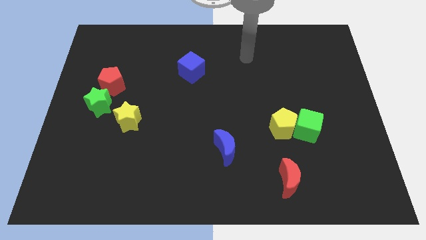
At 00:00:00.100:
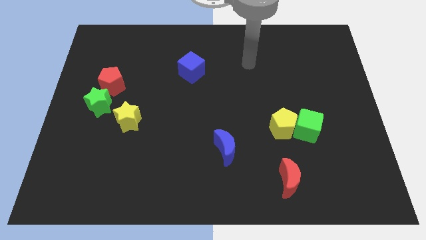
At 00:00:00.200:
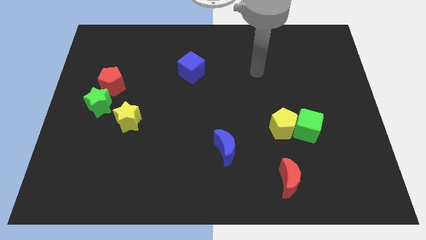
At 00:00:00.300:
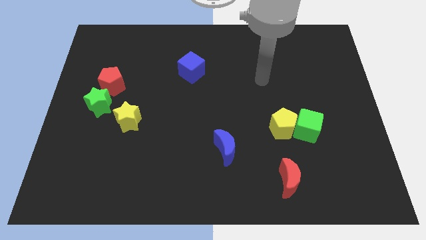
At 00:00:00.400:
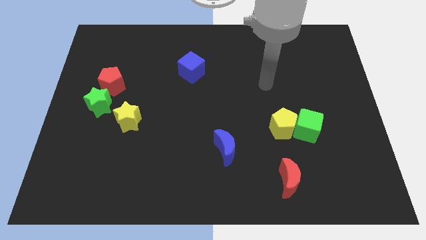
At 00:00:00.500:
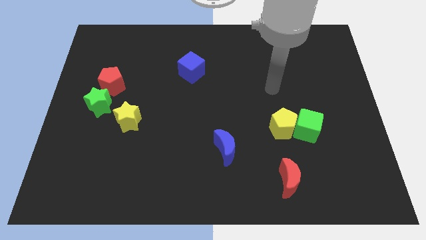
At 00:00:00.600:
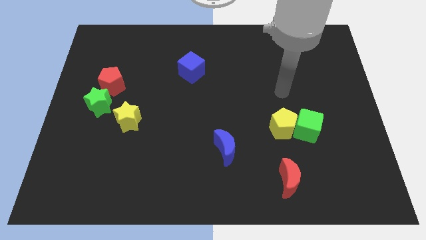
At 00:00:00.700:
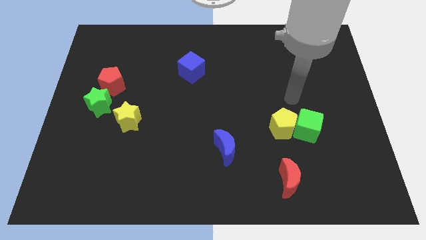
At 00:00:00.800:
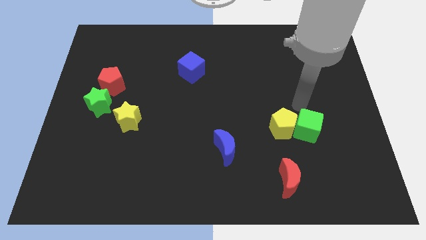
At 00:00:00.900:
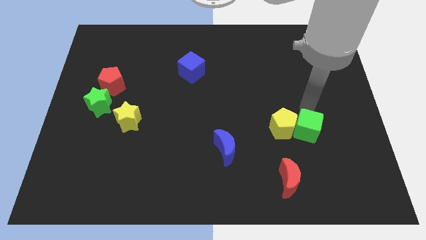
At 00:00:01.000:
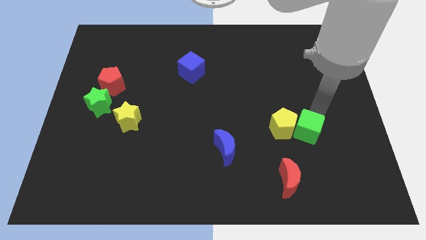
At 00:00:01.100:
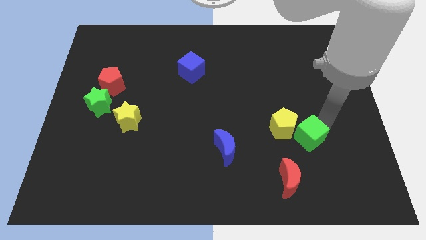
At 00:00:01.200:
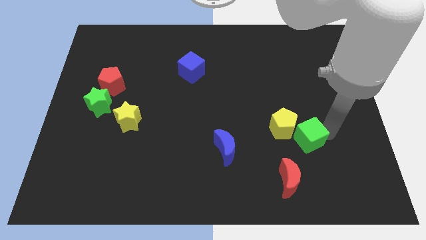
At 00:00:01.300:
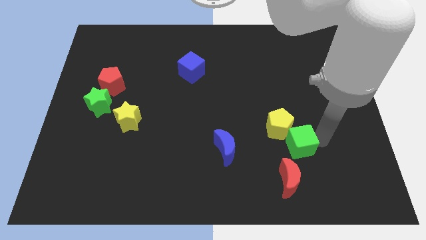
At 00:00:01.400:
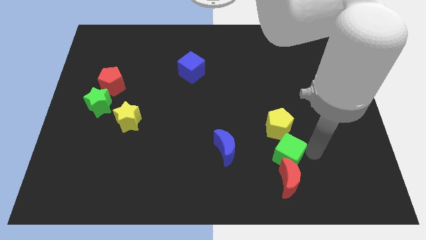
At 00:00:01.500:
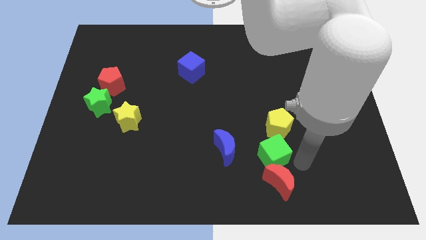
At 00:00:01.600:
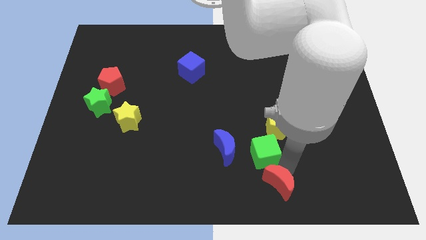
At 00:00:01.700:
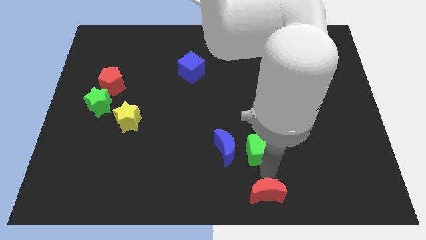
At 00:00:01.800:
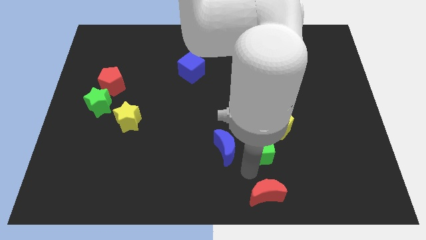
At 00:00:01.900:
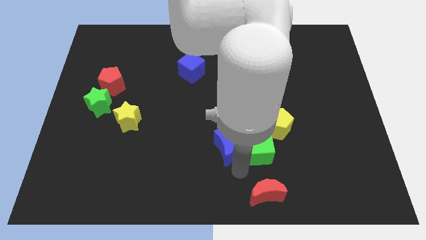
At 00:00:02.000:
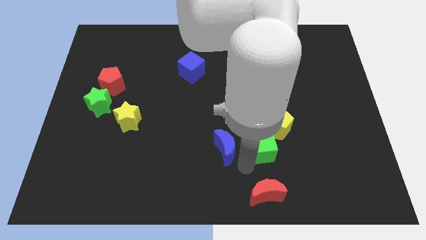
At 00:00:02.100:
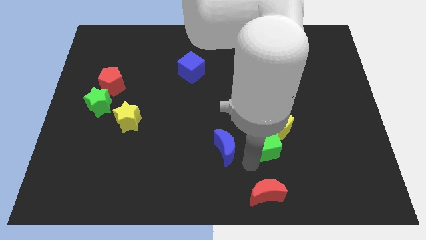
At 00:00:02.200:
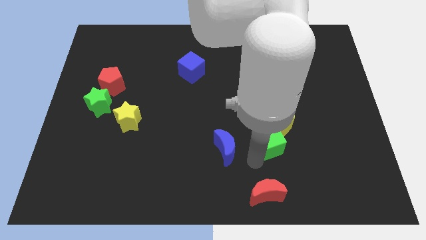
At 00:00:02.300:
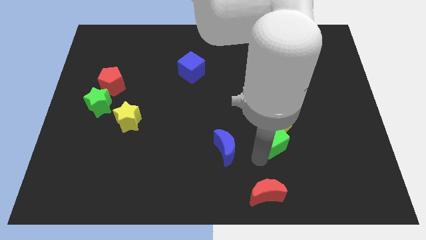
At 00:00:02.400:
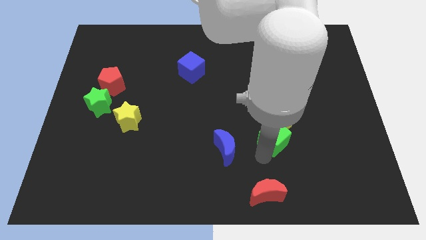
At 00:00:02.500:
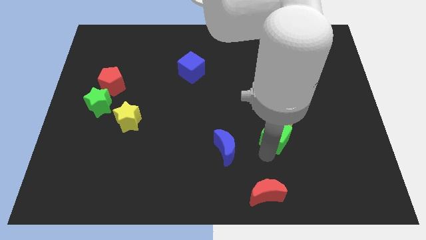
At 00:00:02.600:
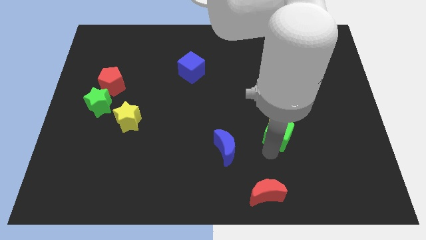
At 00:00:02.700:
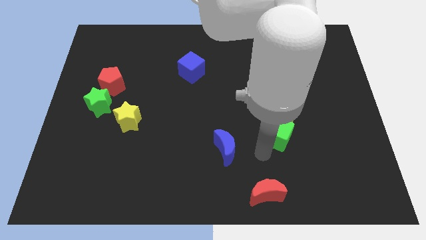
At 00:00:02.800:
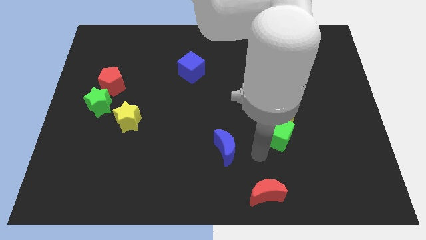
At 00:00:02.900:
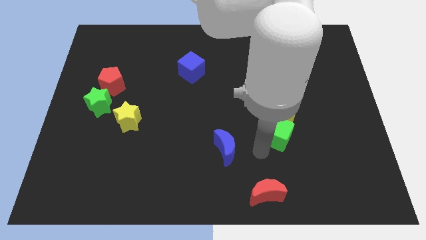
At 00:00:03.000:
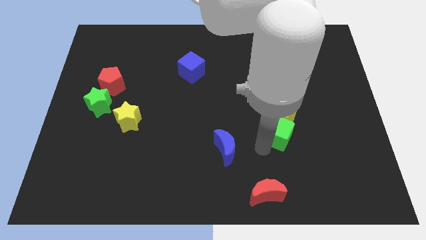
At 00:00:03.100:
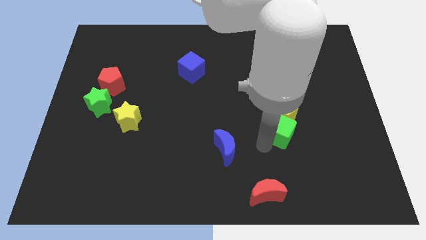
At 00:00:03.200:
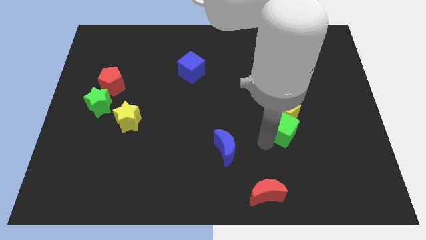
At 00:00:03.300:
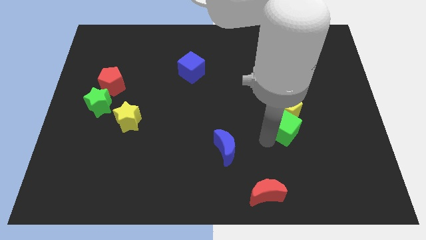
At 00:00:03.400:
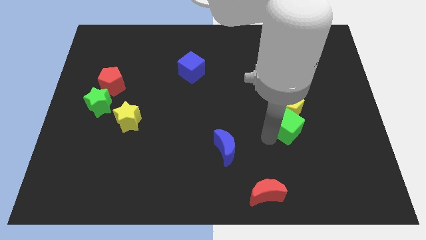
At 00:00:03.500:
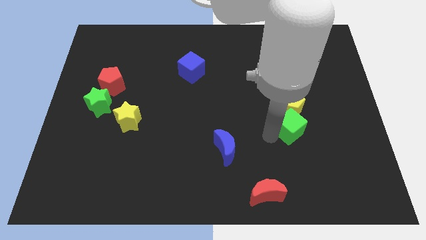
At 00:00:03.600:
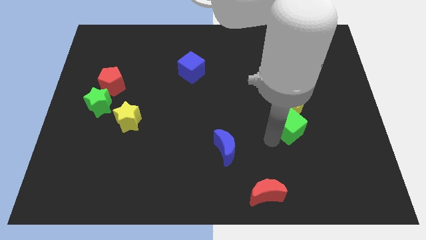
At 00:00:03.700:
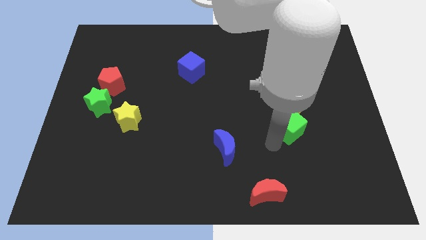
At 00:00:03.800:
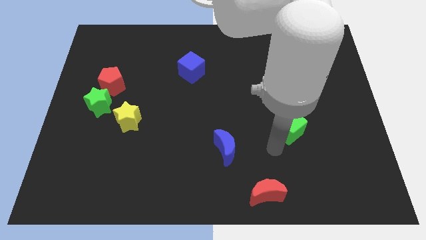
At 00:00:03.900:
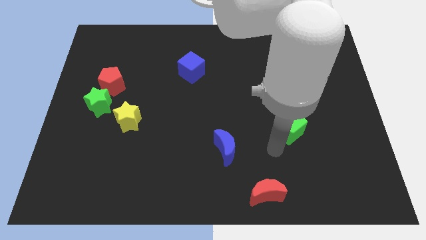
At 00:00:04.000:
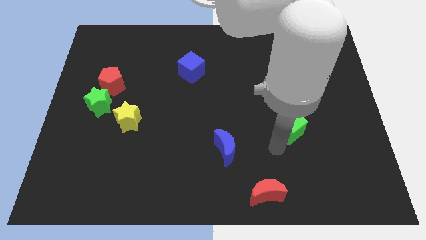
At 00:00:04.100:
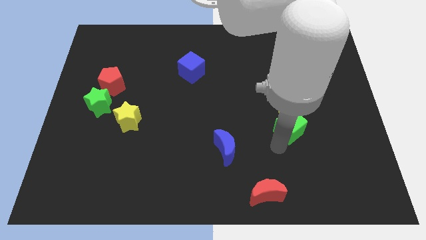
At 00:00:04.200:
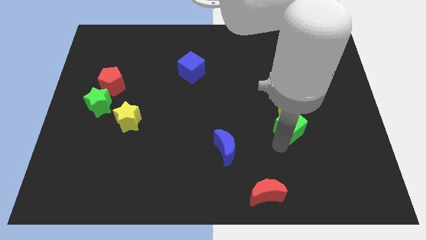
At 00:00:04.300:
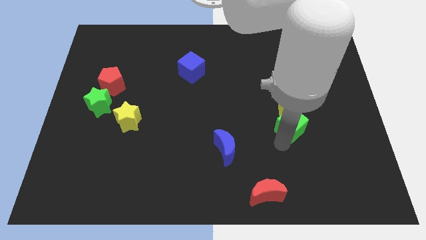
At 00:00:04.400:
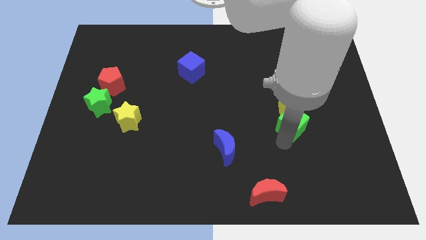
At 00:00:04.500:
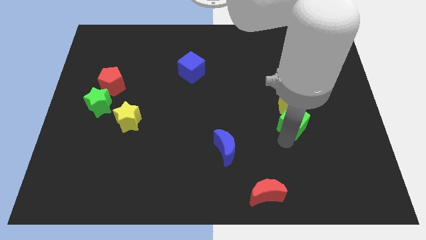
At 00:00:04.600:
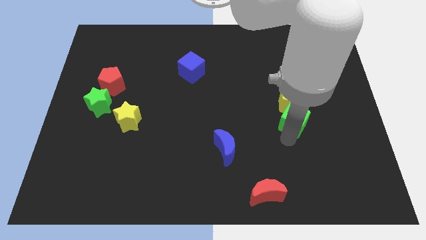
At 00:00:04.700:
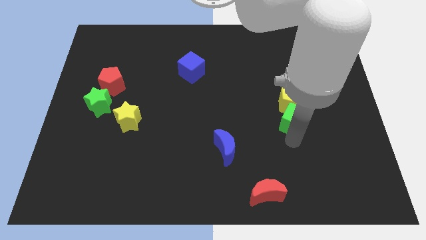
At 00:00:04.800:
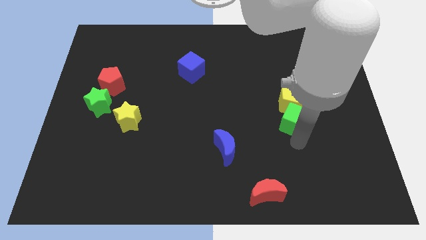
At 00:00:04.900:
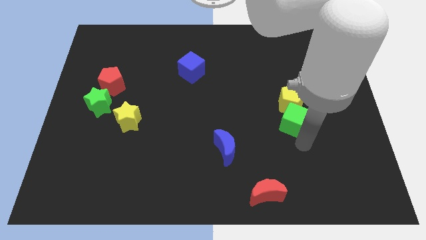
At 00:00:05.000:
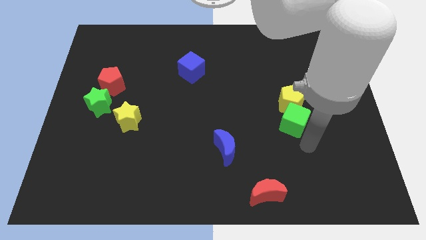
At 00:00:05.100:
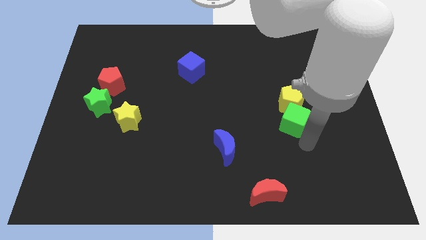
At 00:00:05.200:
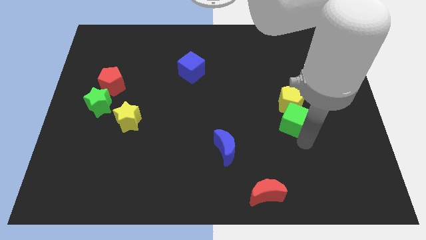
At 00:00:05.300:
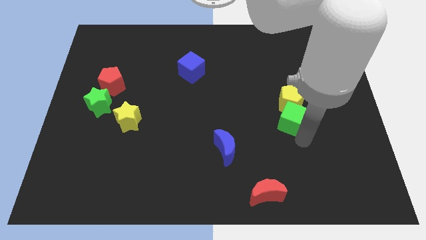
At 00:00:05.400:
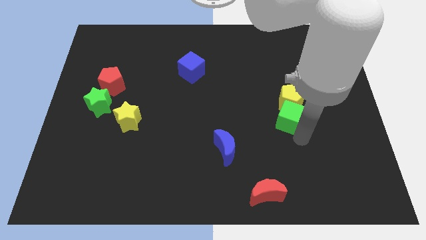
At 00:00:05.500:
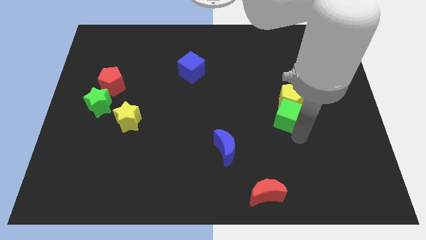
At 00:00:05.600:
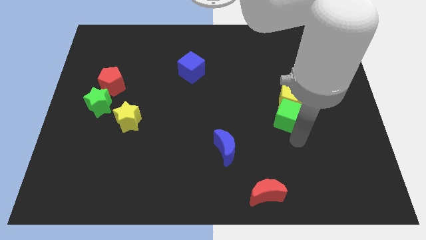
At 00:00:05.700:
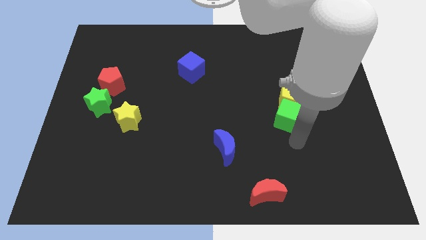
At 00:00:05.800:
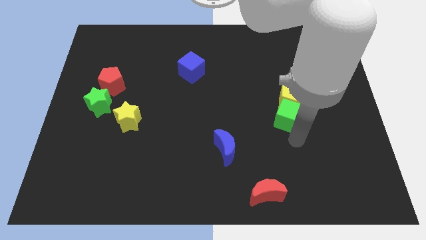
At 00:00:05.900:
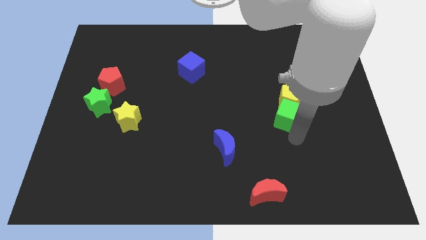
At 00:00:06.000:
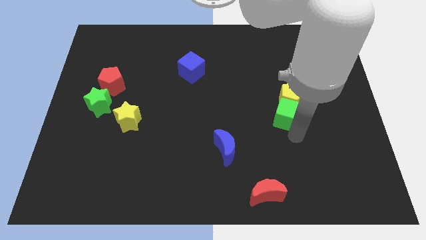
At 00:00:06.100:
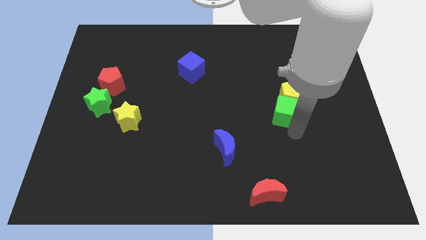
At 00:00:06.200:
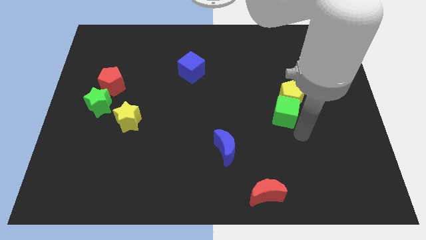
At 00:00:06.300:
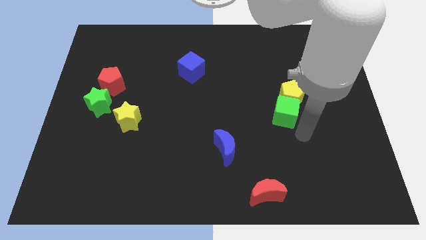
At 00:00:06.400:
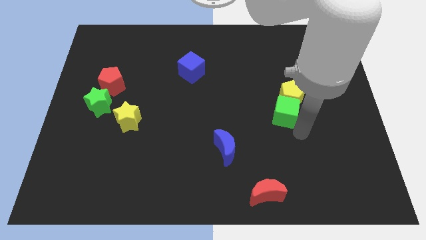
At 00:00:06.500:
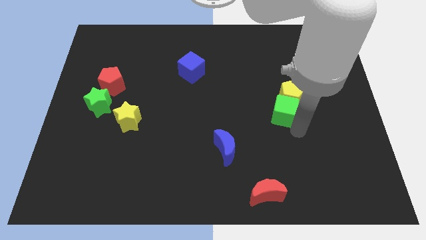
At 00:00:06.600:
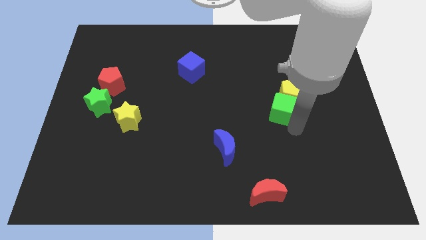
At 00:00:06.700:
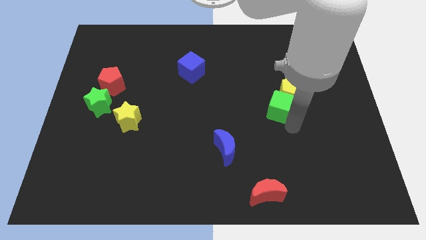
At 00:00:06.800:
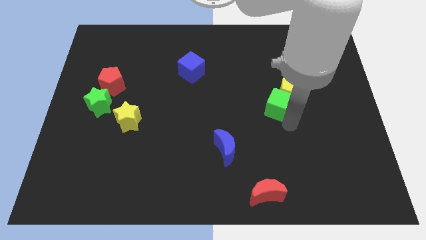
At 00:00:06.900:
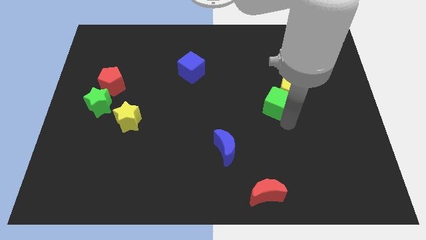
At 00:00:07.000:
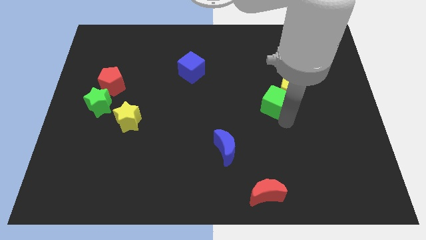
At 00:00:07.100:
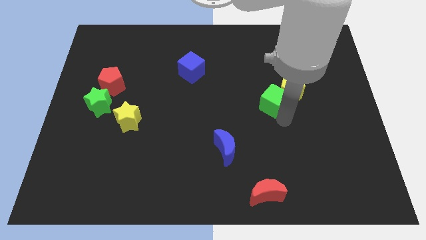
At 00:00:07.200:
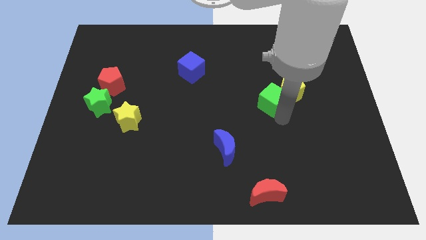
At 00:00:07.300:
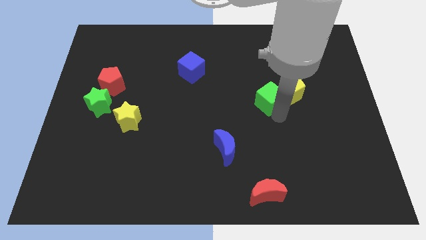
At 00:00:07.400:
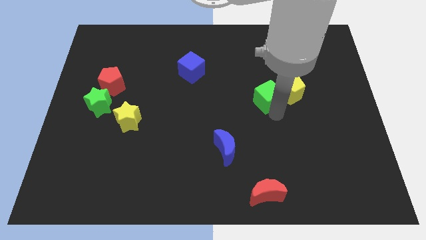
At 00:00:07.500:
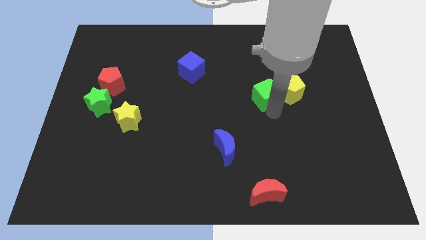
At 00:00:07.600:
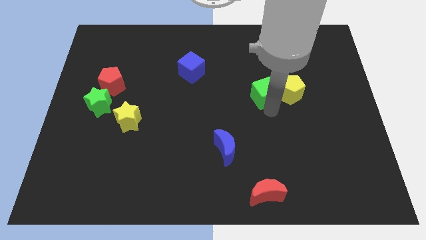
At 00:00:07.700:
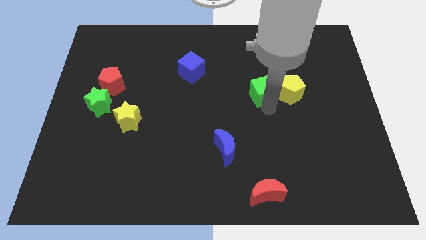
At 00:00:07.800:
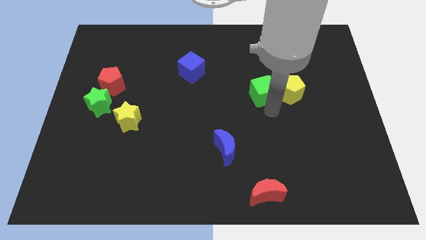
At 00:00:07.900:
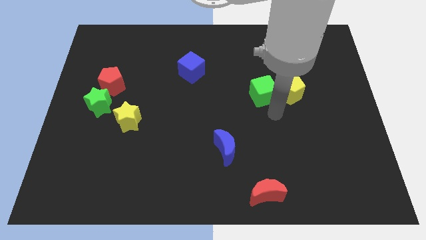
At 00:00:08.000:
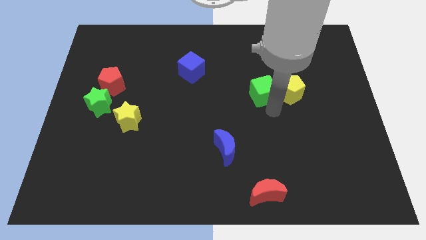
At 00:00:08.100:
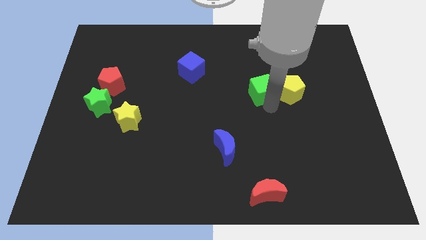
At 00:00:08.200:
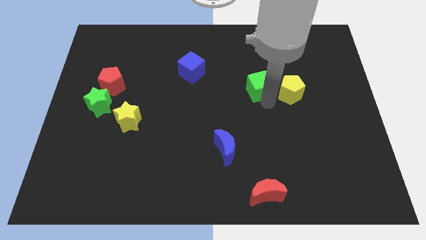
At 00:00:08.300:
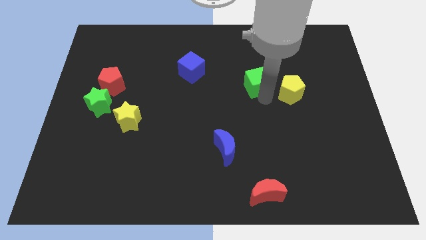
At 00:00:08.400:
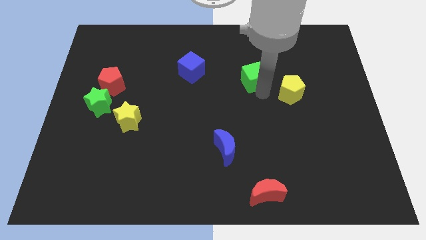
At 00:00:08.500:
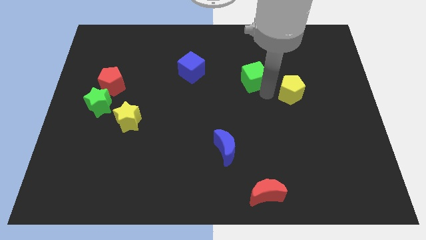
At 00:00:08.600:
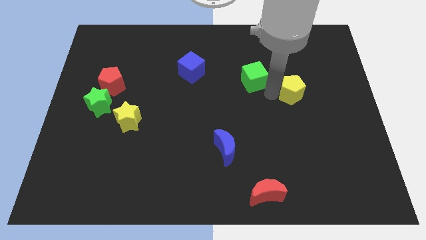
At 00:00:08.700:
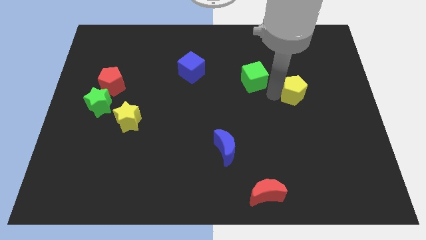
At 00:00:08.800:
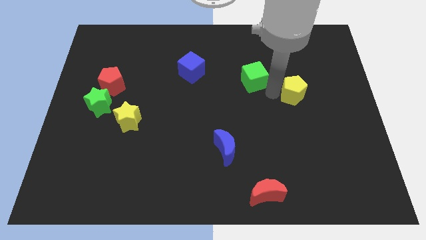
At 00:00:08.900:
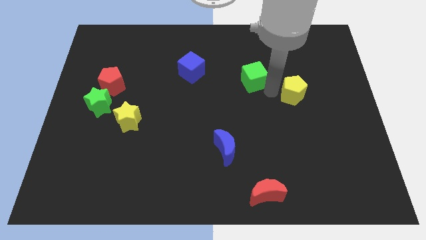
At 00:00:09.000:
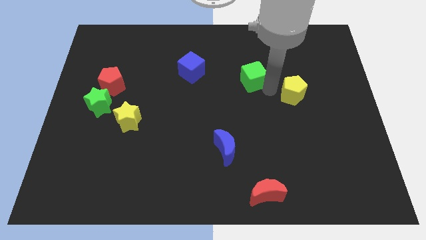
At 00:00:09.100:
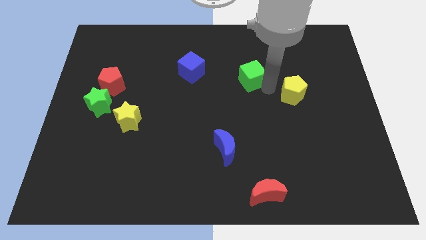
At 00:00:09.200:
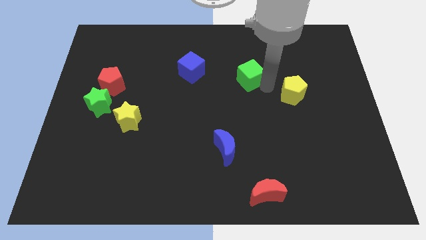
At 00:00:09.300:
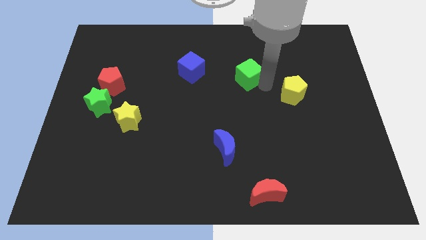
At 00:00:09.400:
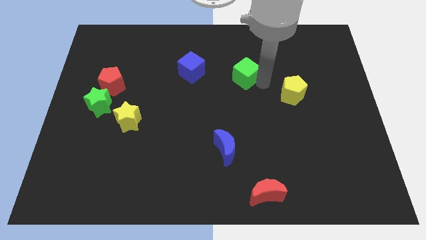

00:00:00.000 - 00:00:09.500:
push the green cube diagonally up and left
